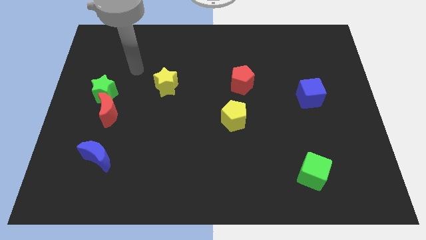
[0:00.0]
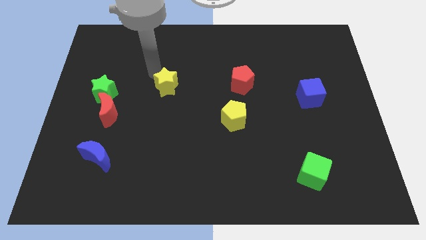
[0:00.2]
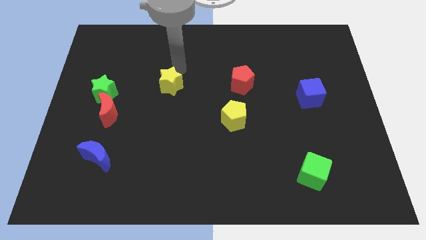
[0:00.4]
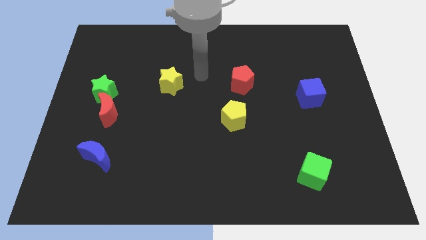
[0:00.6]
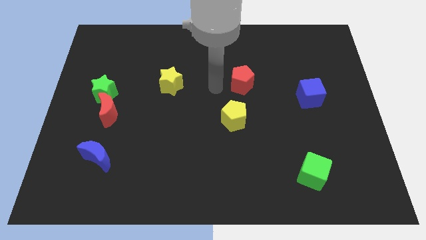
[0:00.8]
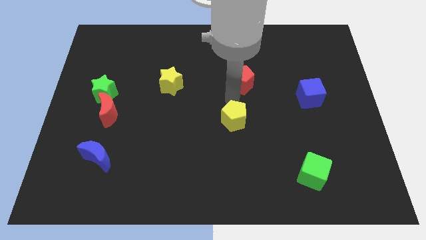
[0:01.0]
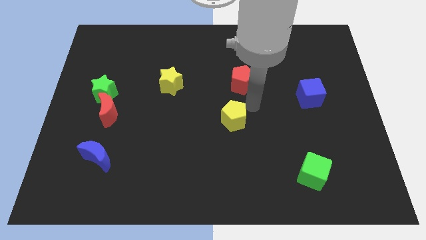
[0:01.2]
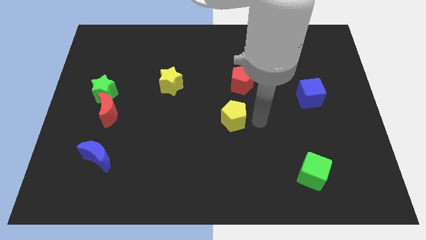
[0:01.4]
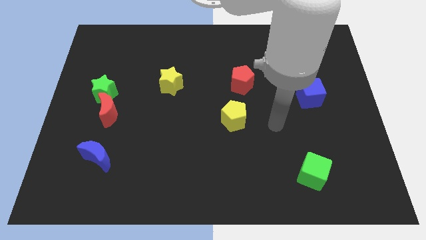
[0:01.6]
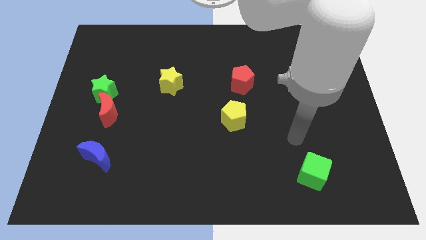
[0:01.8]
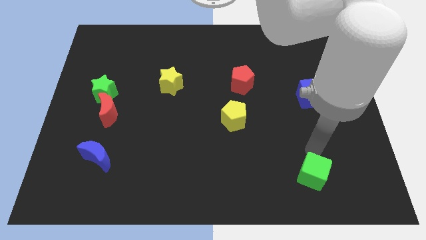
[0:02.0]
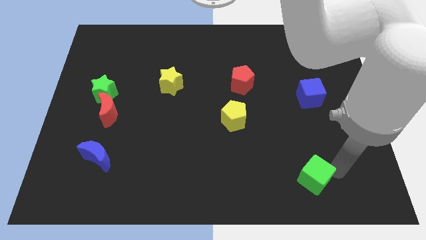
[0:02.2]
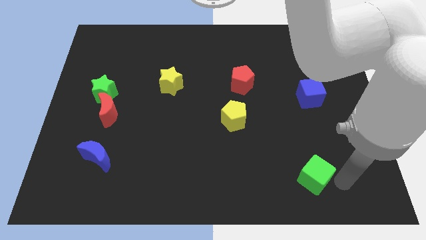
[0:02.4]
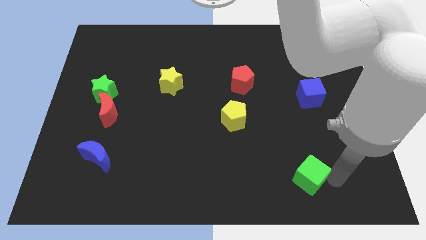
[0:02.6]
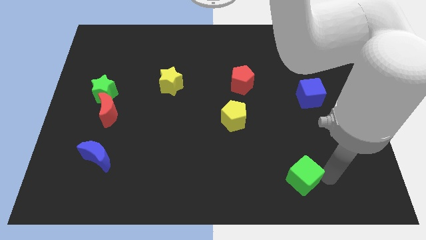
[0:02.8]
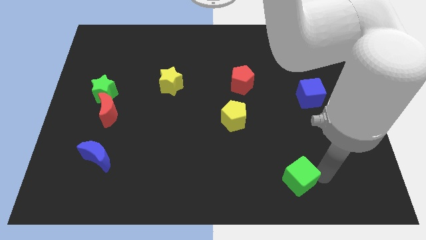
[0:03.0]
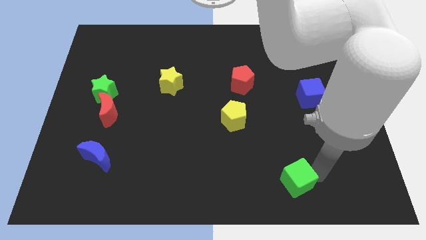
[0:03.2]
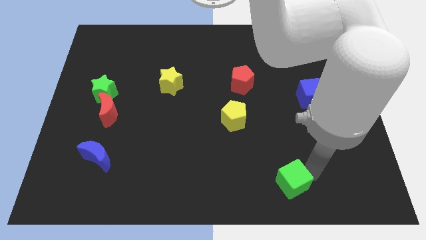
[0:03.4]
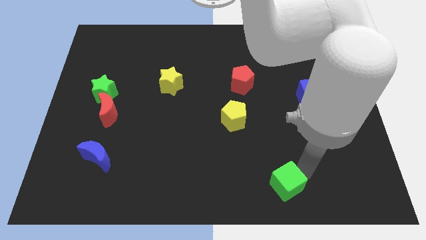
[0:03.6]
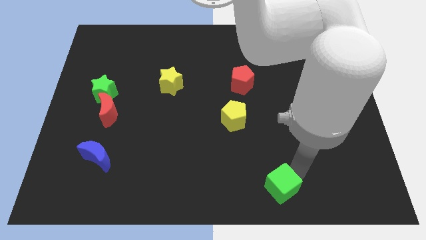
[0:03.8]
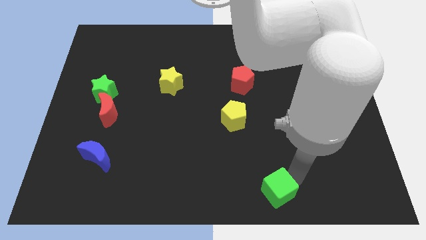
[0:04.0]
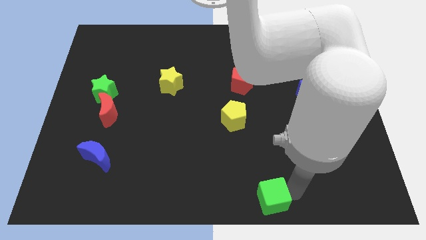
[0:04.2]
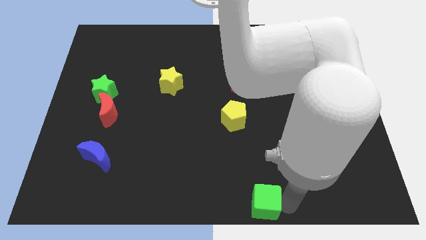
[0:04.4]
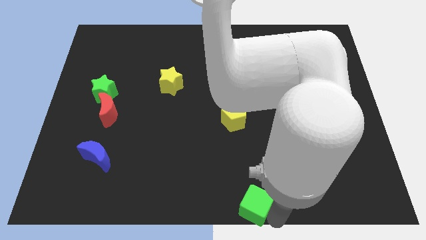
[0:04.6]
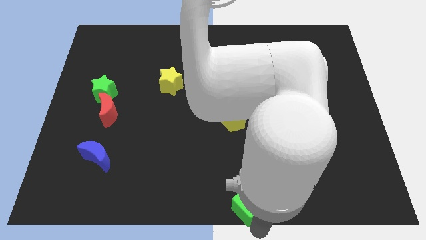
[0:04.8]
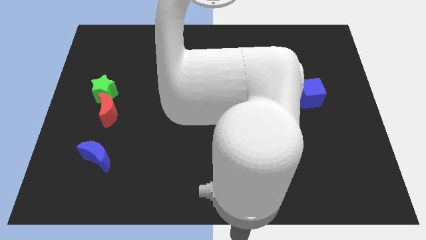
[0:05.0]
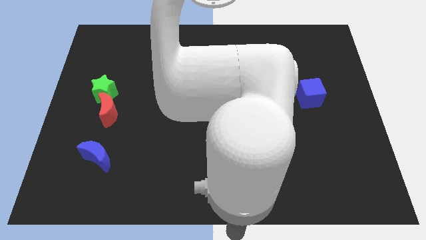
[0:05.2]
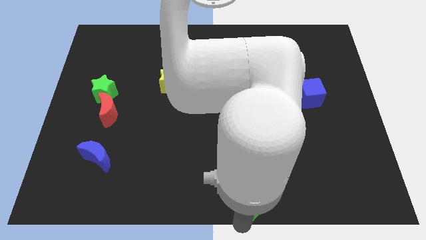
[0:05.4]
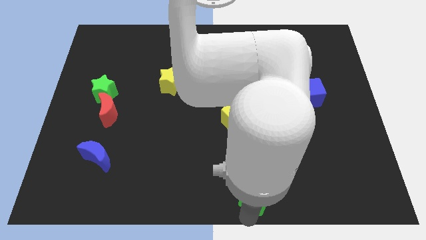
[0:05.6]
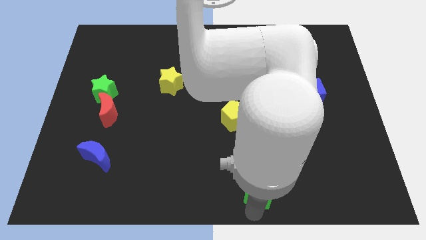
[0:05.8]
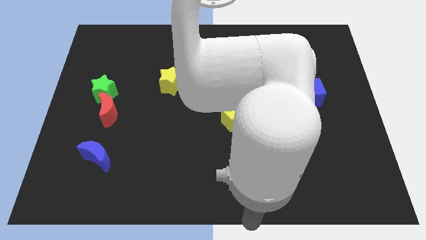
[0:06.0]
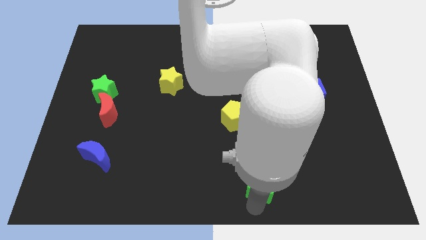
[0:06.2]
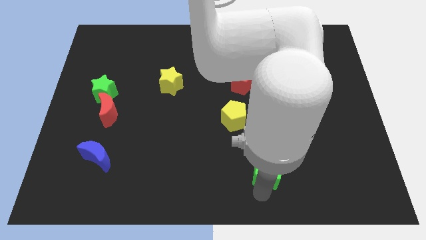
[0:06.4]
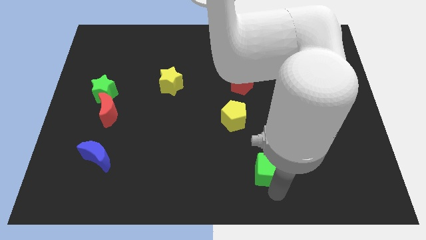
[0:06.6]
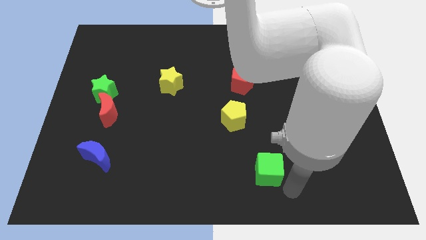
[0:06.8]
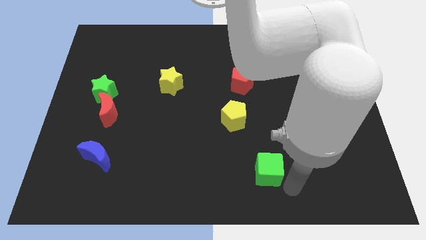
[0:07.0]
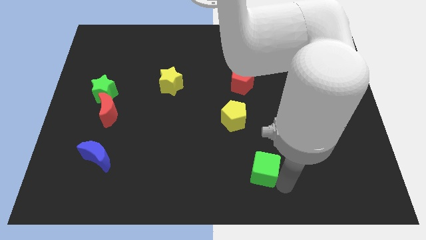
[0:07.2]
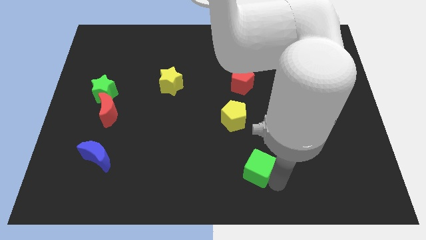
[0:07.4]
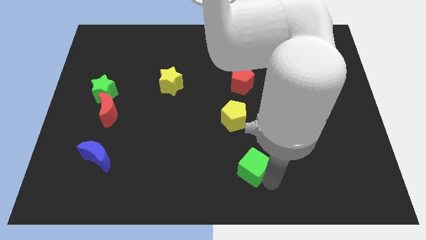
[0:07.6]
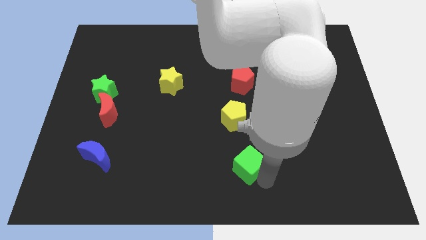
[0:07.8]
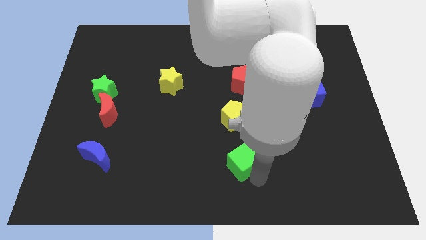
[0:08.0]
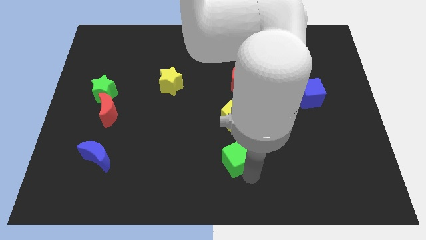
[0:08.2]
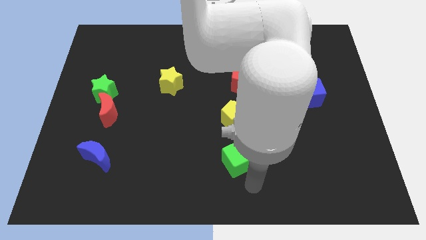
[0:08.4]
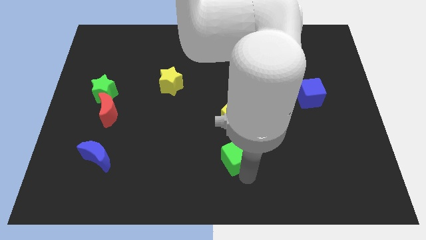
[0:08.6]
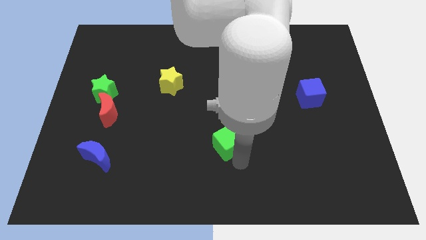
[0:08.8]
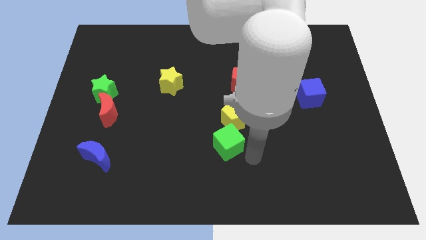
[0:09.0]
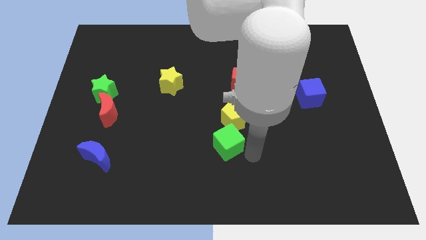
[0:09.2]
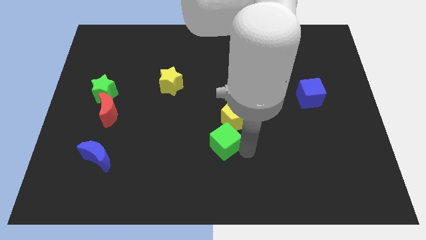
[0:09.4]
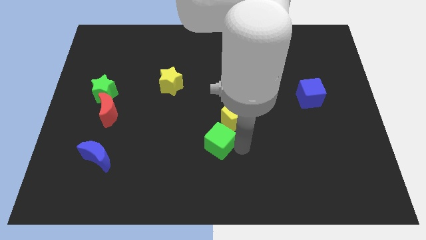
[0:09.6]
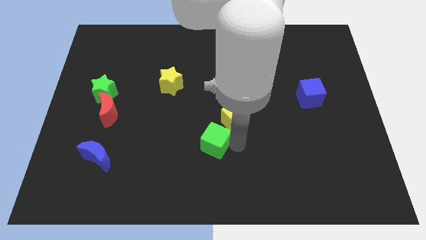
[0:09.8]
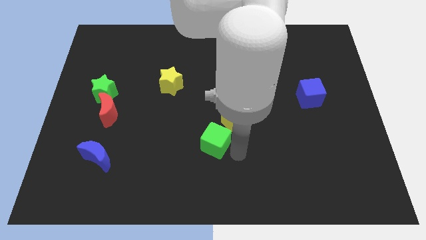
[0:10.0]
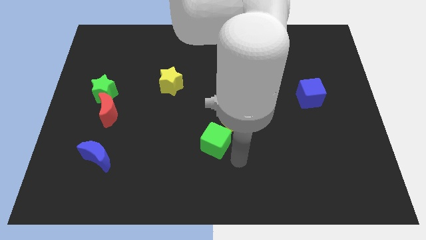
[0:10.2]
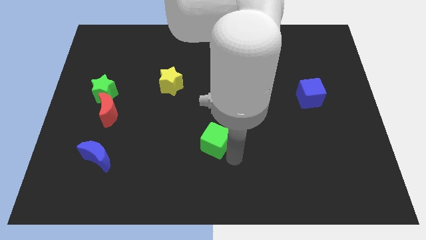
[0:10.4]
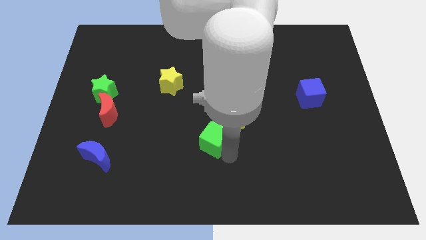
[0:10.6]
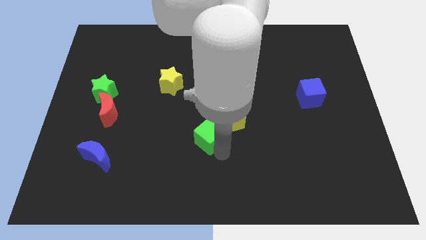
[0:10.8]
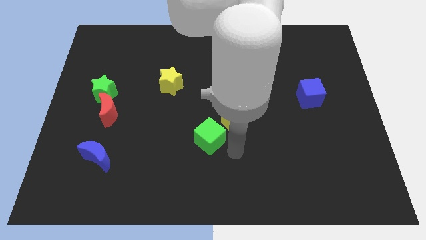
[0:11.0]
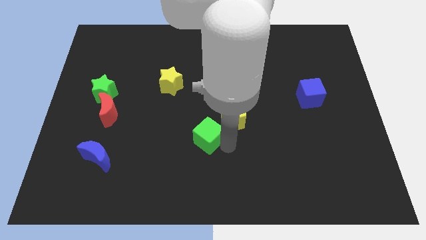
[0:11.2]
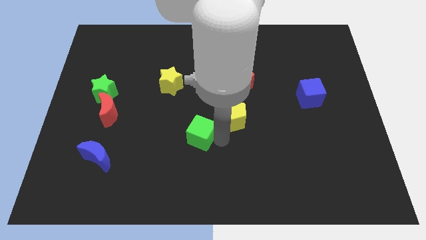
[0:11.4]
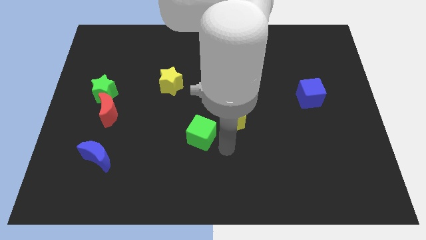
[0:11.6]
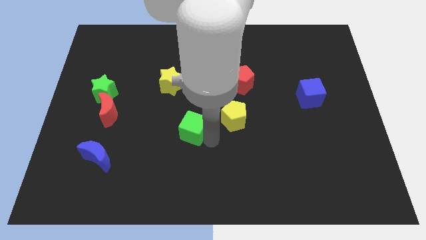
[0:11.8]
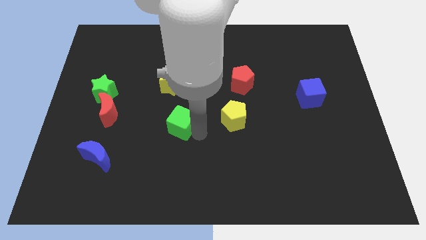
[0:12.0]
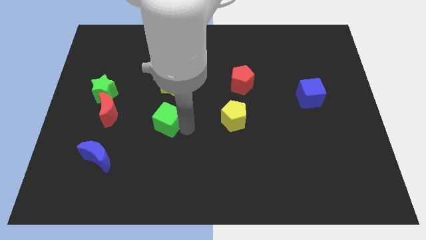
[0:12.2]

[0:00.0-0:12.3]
put the green cube right of the red moon
